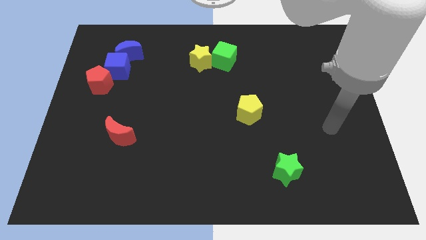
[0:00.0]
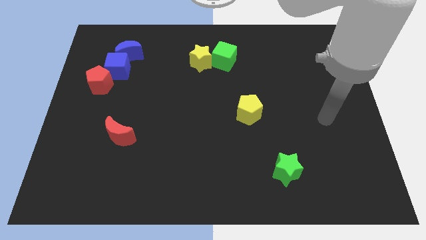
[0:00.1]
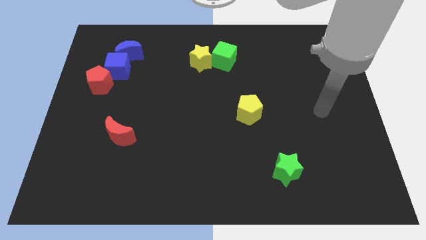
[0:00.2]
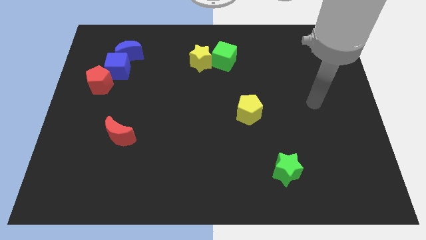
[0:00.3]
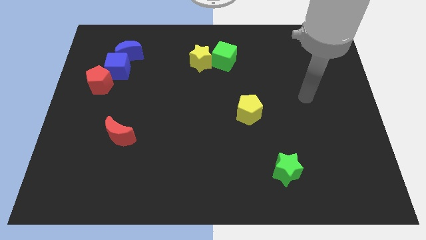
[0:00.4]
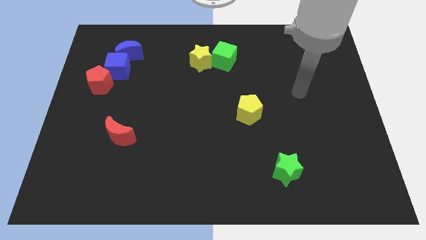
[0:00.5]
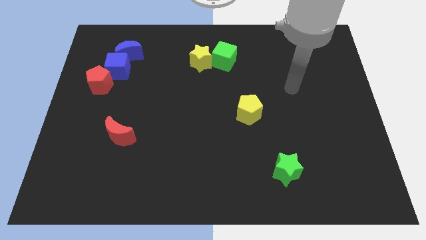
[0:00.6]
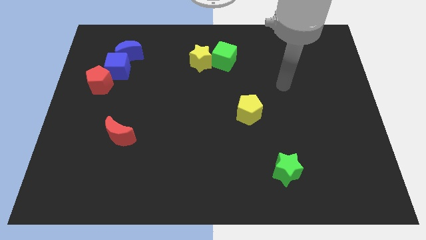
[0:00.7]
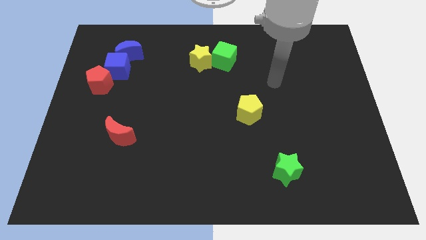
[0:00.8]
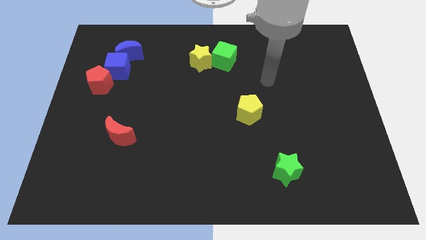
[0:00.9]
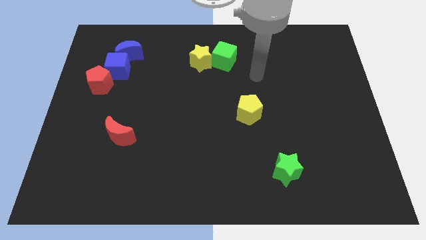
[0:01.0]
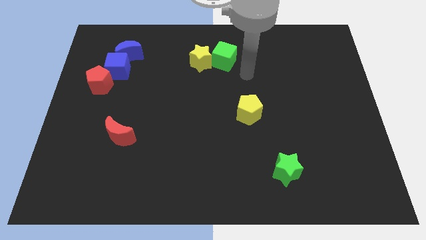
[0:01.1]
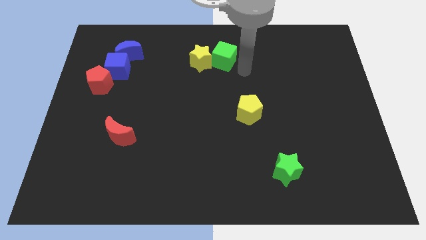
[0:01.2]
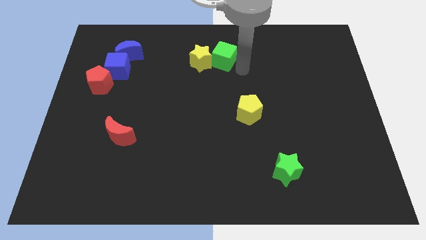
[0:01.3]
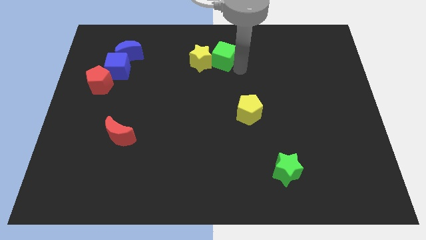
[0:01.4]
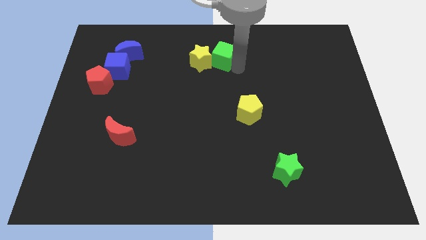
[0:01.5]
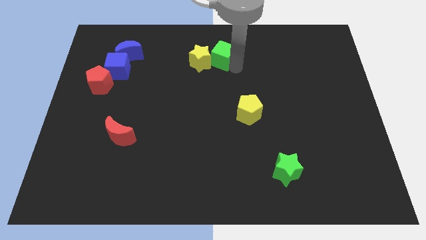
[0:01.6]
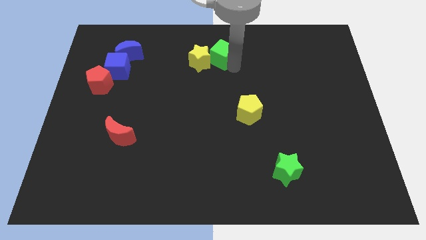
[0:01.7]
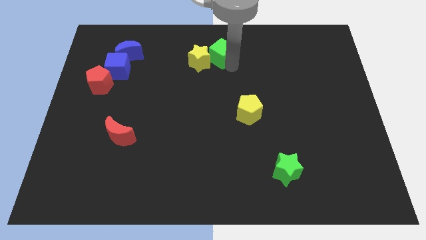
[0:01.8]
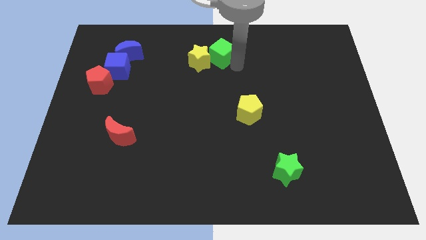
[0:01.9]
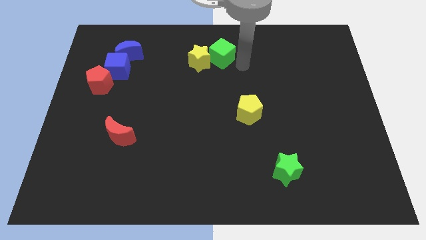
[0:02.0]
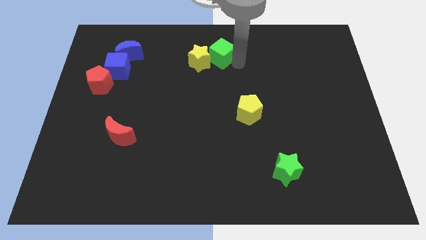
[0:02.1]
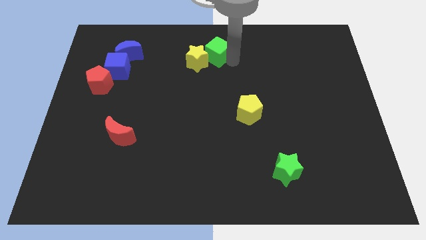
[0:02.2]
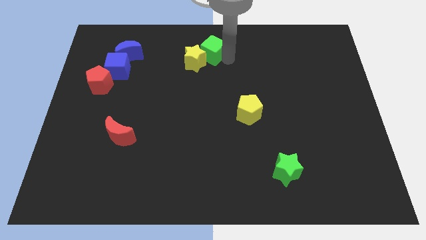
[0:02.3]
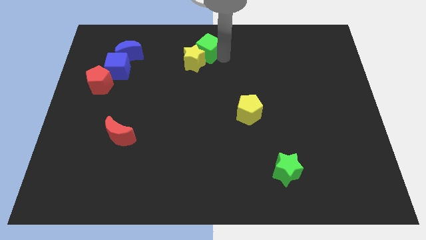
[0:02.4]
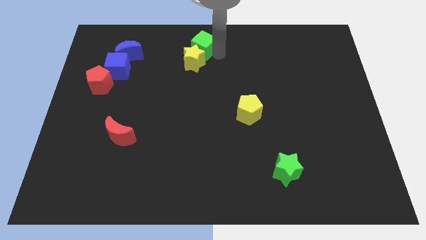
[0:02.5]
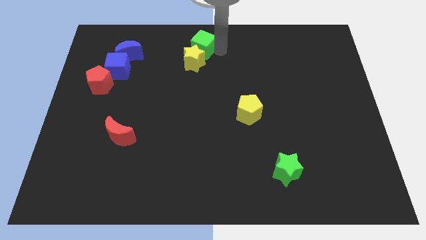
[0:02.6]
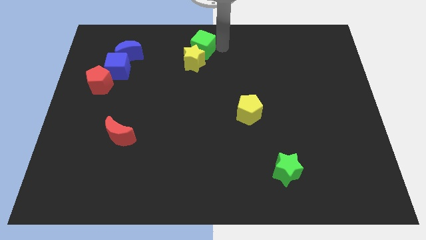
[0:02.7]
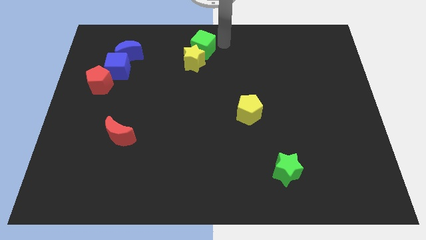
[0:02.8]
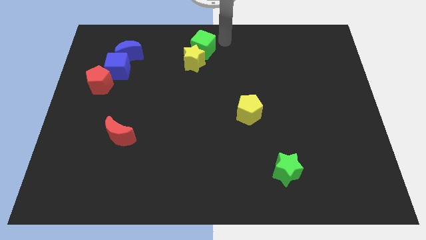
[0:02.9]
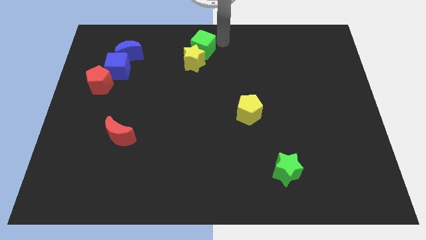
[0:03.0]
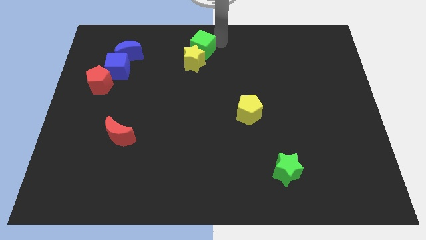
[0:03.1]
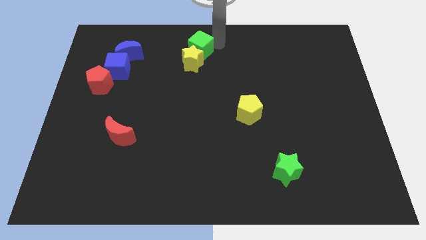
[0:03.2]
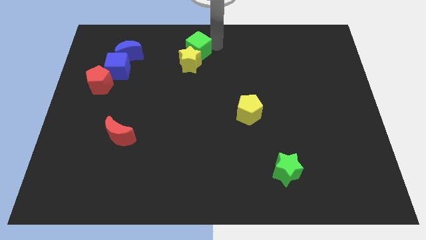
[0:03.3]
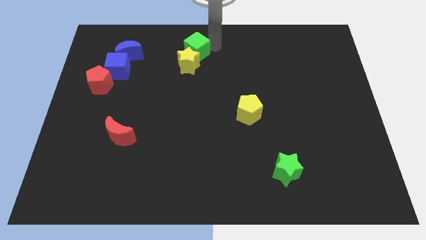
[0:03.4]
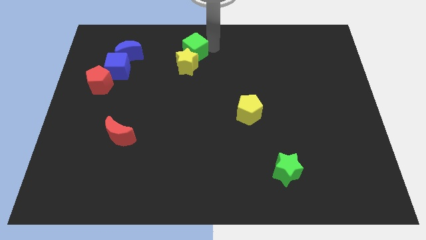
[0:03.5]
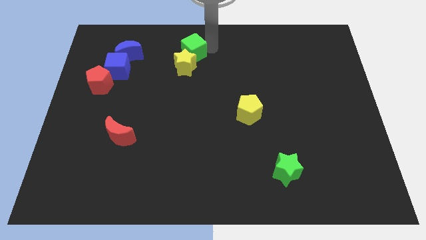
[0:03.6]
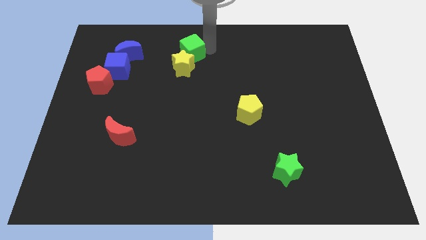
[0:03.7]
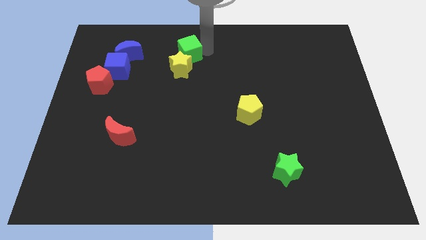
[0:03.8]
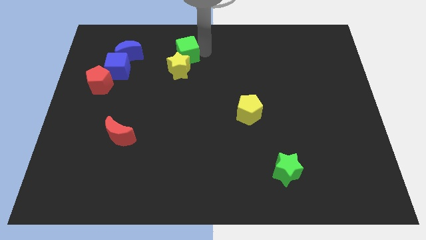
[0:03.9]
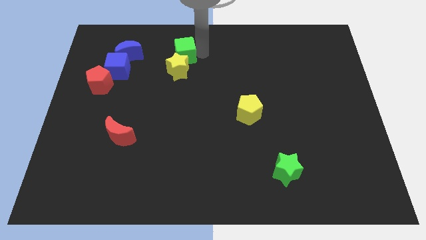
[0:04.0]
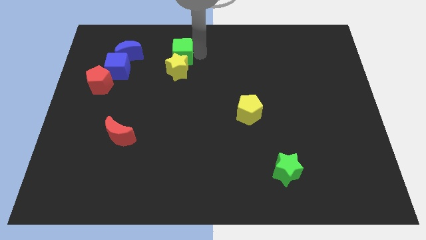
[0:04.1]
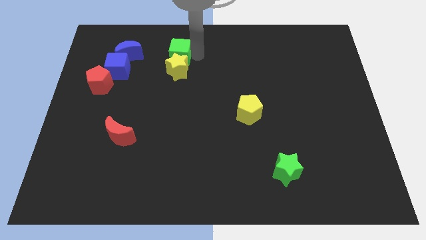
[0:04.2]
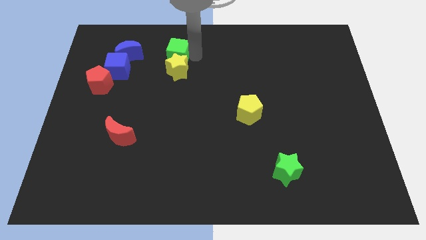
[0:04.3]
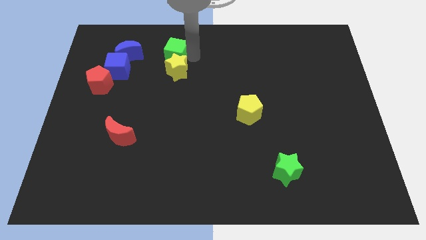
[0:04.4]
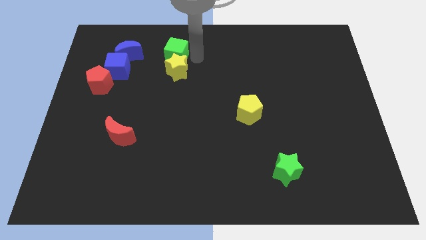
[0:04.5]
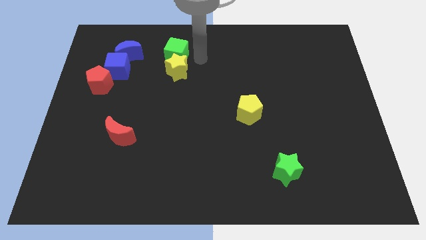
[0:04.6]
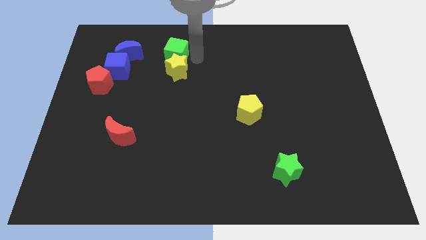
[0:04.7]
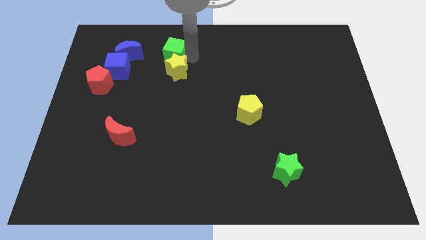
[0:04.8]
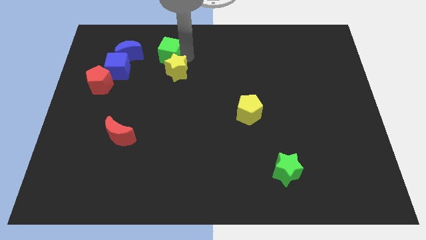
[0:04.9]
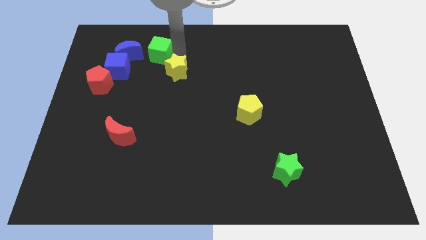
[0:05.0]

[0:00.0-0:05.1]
slide the green cube diagonally up and to the right of the blue cube

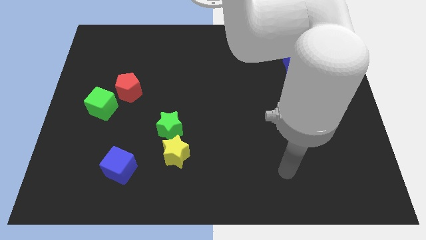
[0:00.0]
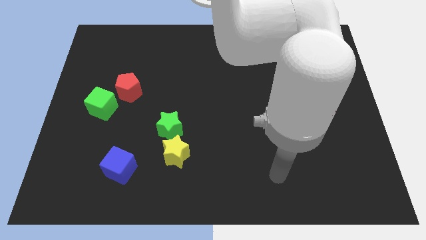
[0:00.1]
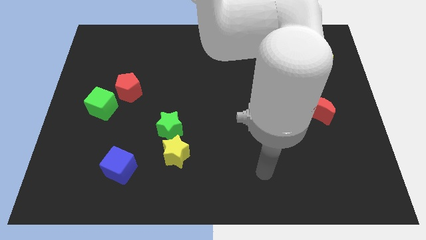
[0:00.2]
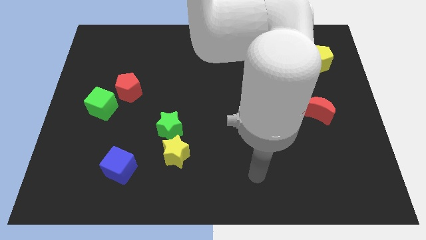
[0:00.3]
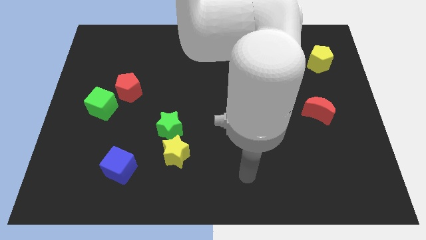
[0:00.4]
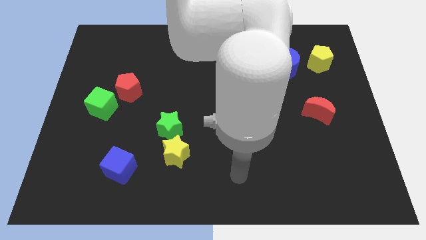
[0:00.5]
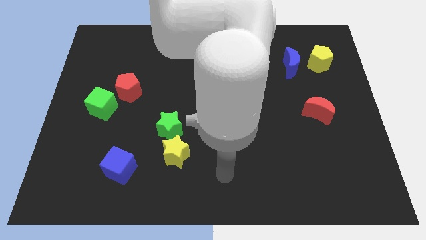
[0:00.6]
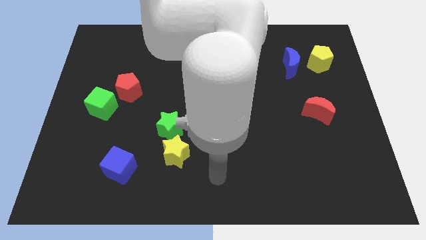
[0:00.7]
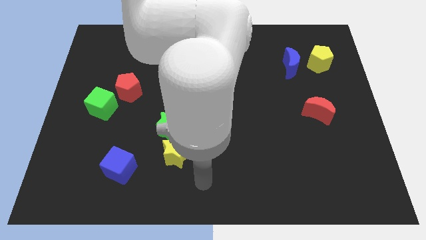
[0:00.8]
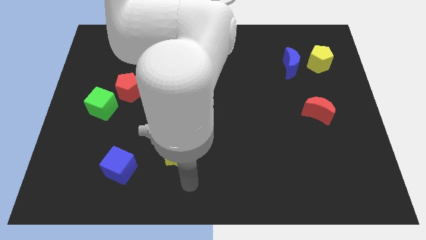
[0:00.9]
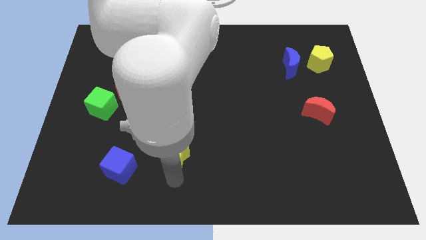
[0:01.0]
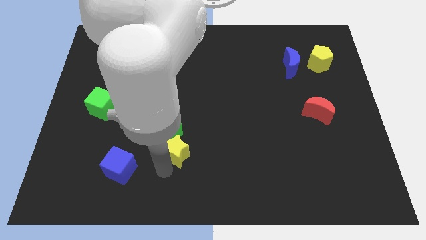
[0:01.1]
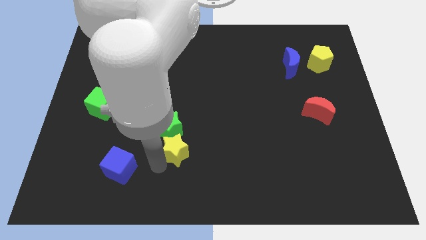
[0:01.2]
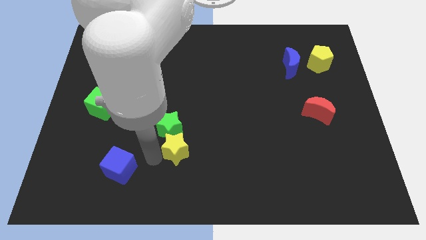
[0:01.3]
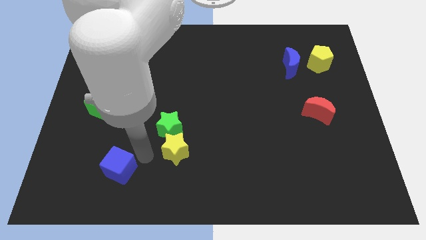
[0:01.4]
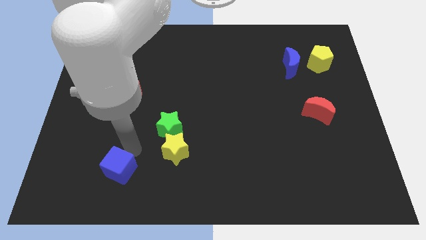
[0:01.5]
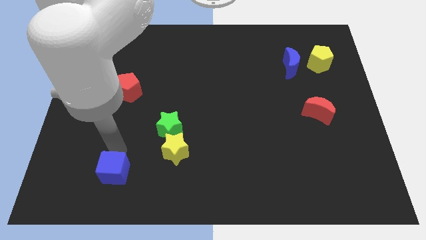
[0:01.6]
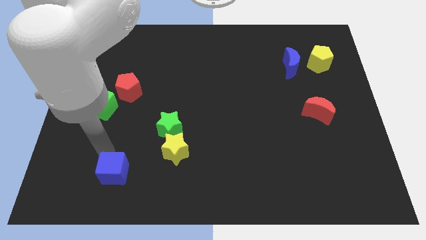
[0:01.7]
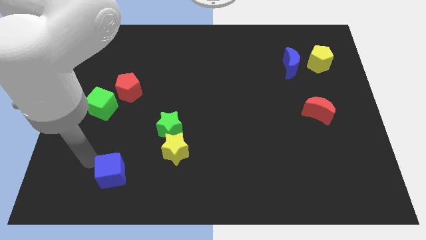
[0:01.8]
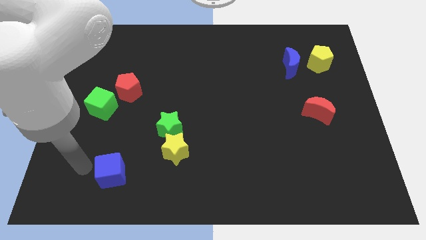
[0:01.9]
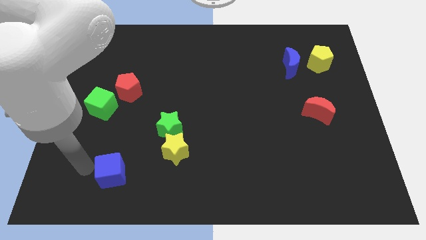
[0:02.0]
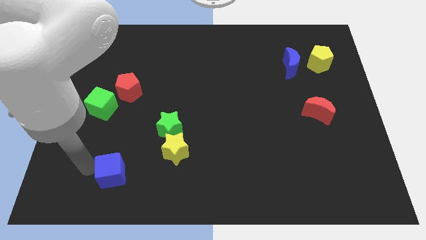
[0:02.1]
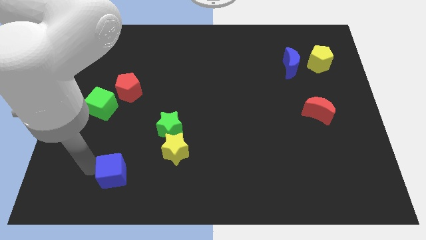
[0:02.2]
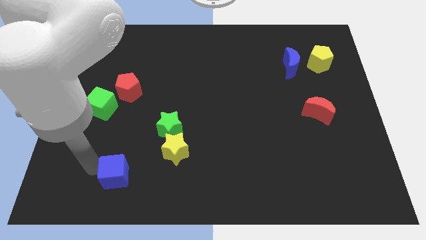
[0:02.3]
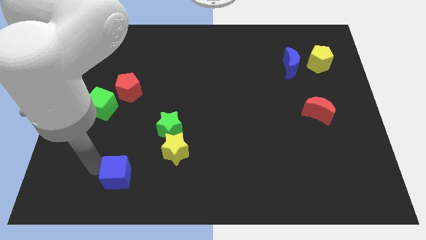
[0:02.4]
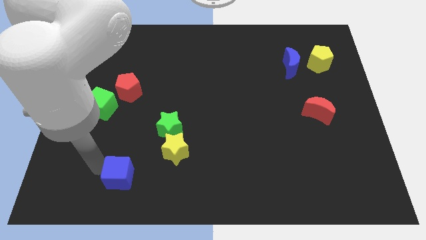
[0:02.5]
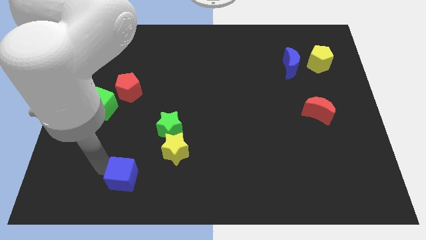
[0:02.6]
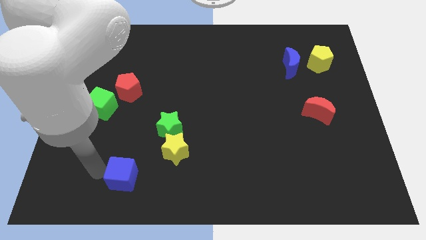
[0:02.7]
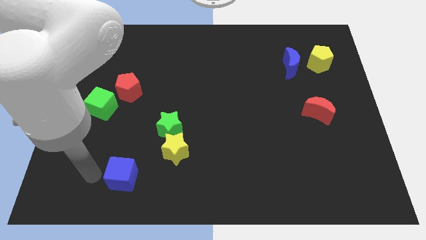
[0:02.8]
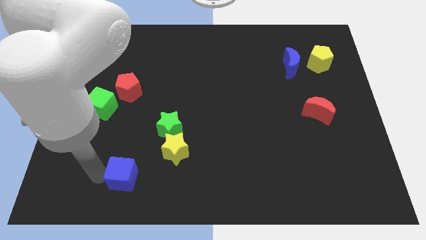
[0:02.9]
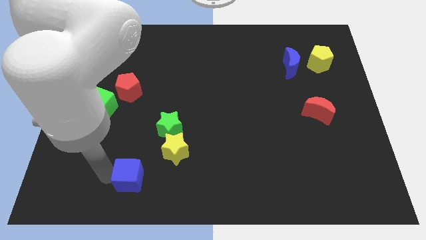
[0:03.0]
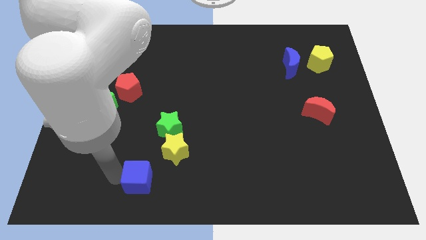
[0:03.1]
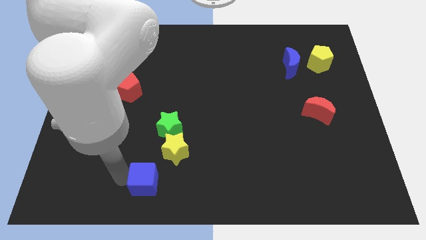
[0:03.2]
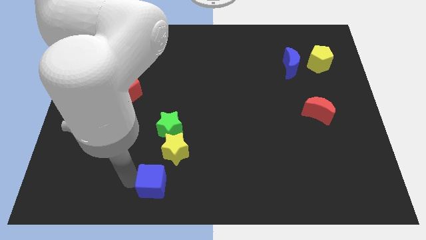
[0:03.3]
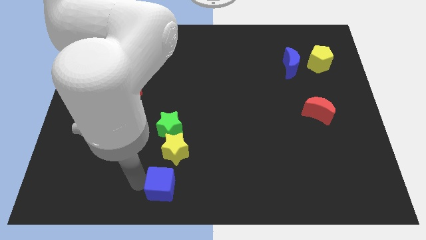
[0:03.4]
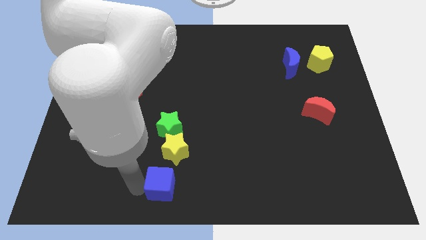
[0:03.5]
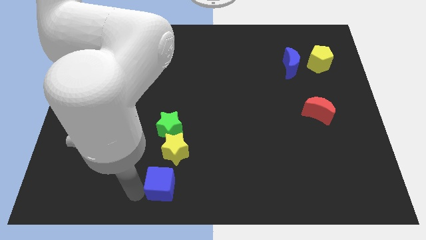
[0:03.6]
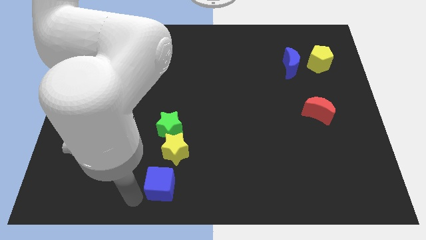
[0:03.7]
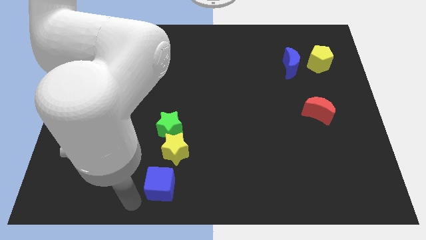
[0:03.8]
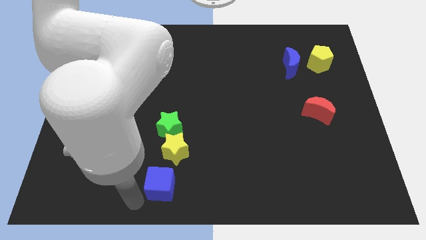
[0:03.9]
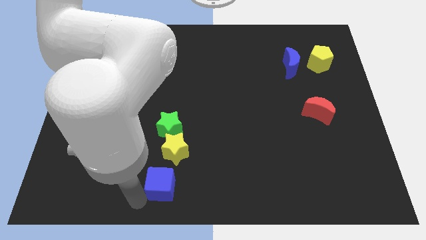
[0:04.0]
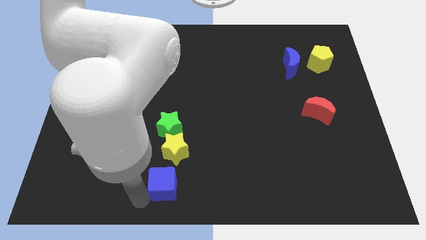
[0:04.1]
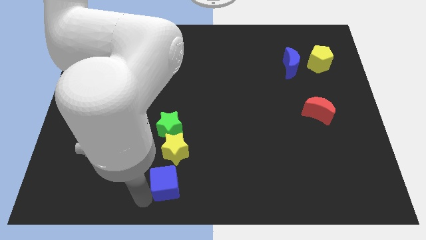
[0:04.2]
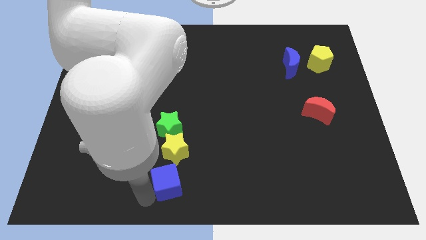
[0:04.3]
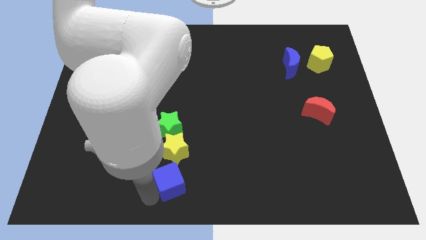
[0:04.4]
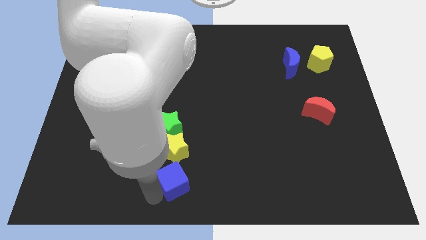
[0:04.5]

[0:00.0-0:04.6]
push the blue cube diagonally down and to the right of the yellow star
